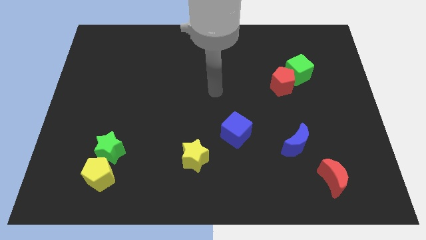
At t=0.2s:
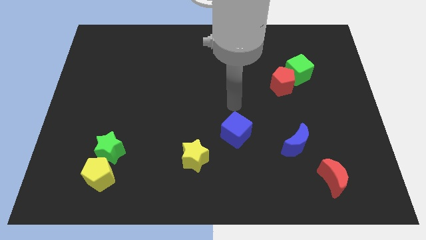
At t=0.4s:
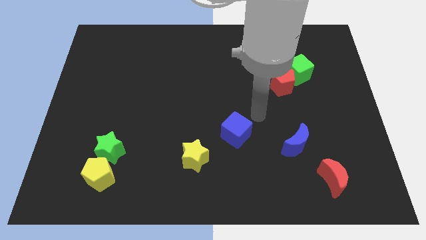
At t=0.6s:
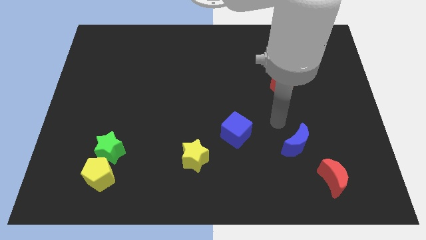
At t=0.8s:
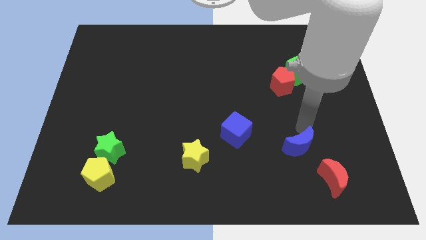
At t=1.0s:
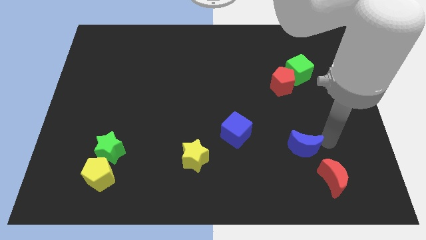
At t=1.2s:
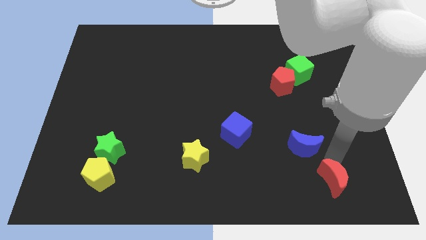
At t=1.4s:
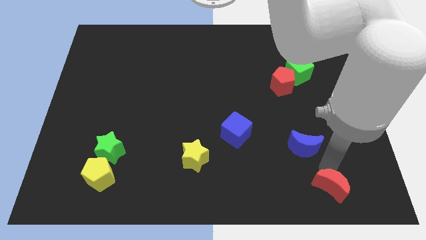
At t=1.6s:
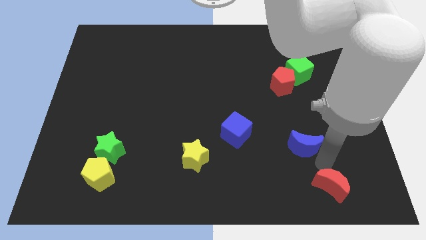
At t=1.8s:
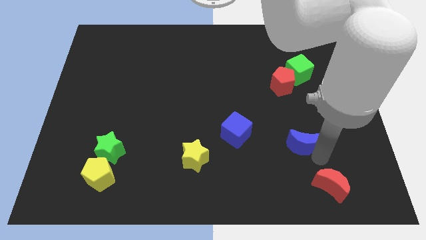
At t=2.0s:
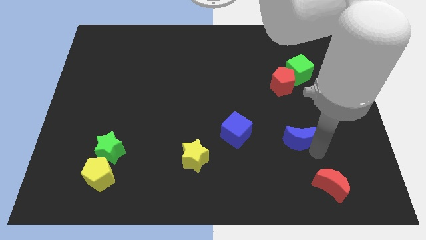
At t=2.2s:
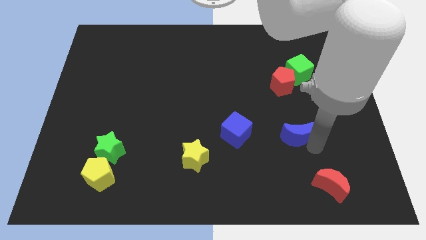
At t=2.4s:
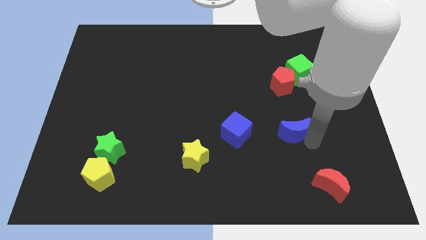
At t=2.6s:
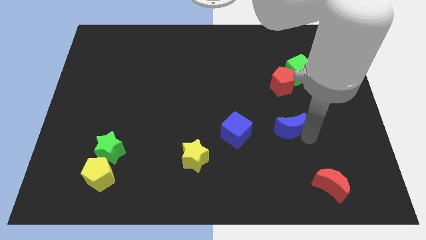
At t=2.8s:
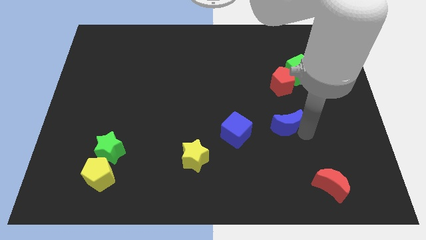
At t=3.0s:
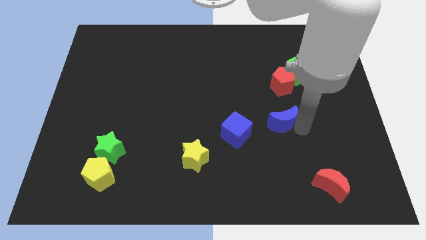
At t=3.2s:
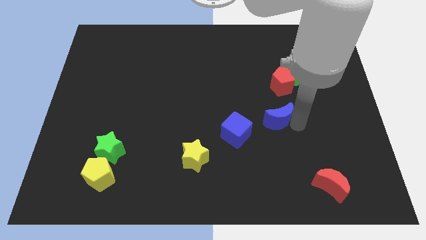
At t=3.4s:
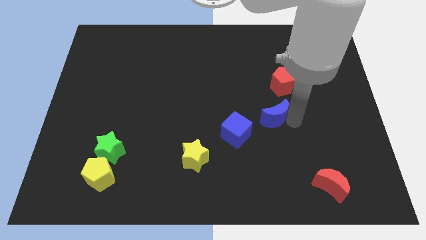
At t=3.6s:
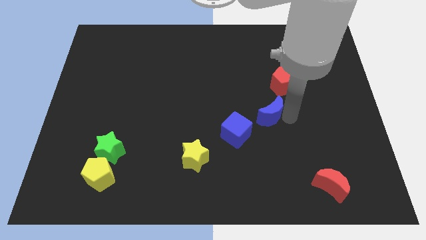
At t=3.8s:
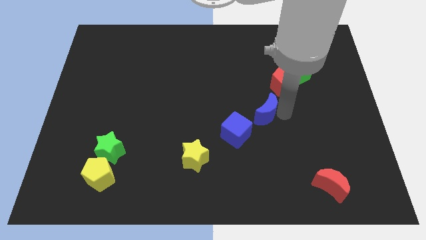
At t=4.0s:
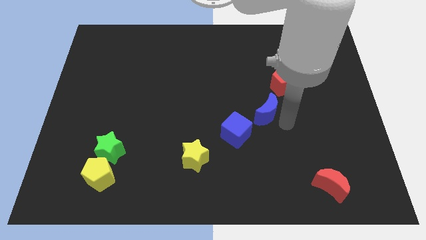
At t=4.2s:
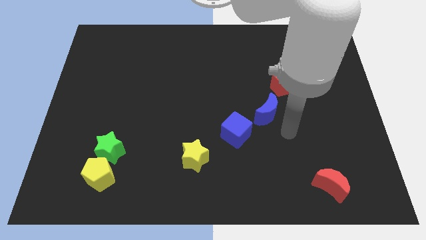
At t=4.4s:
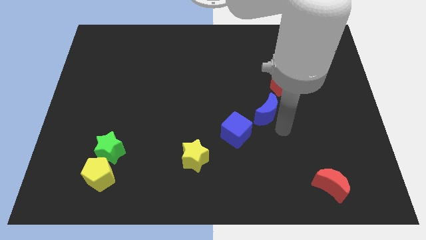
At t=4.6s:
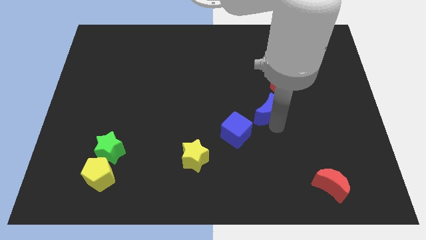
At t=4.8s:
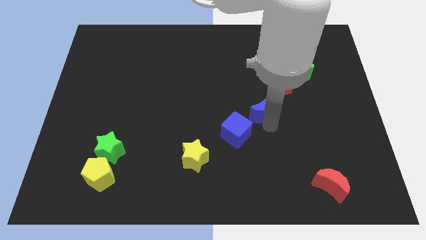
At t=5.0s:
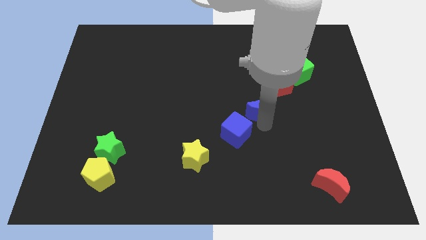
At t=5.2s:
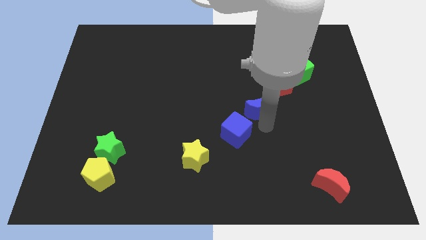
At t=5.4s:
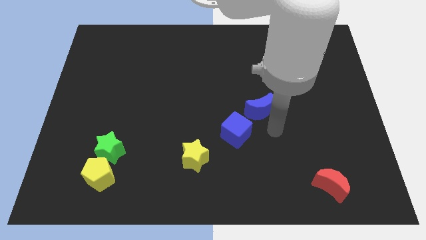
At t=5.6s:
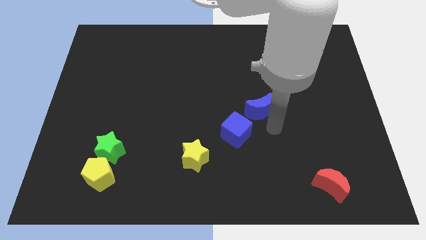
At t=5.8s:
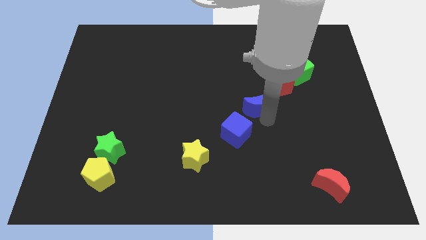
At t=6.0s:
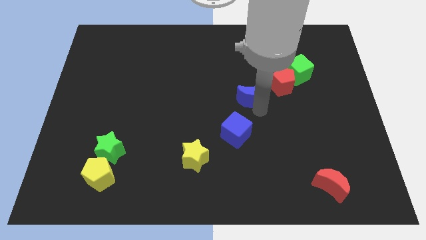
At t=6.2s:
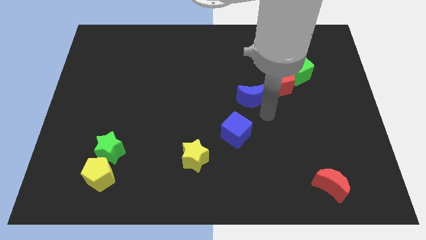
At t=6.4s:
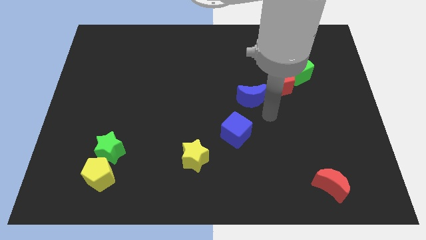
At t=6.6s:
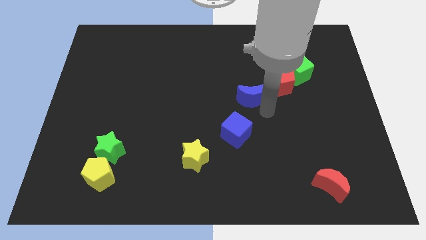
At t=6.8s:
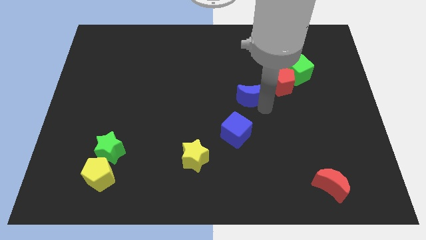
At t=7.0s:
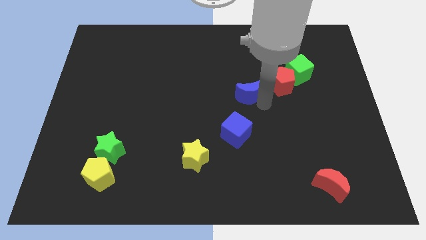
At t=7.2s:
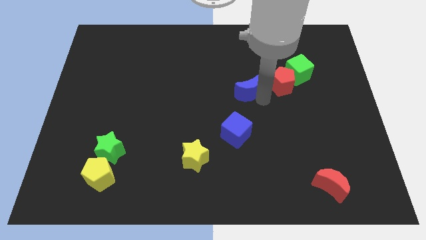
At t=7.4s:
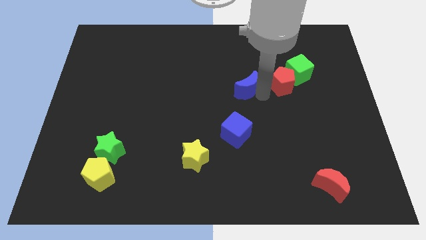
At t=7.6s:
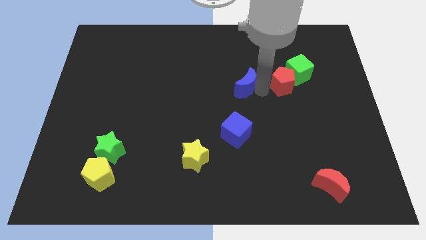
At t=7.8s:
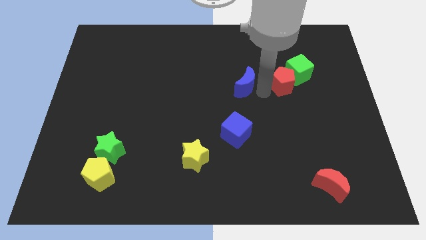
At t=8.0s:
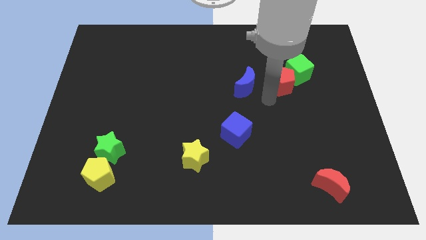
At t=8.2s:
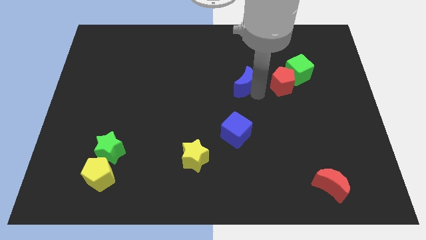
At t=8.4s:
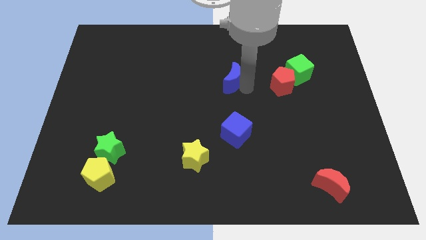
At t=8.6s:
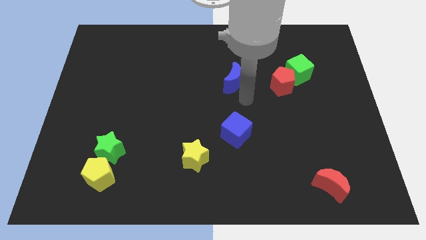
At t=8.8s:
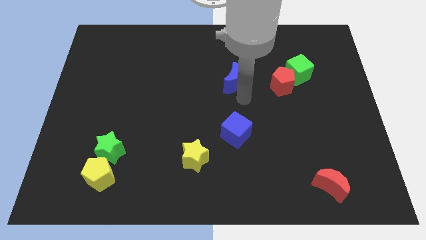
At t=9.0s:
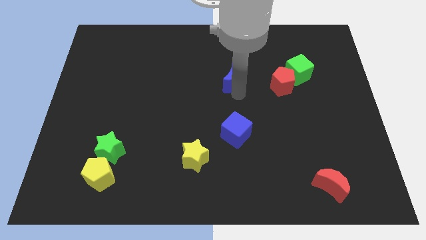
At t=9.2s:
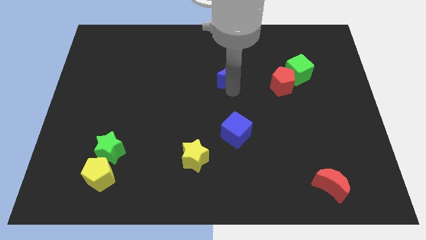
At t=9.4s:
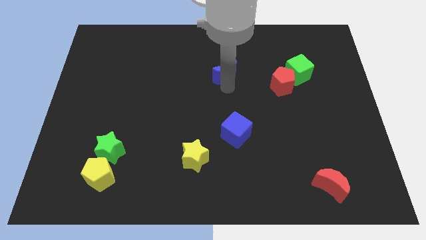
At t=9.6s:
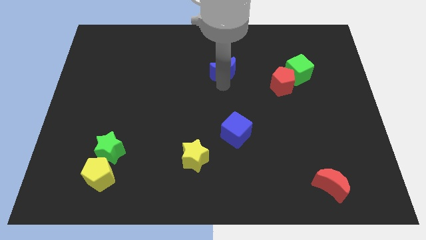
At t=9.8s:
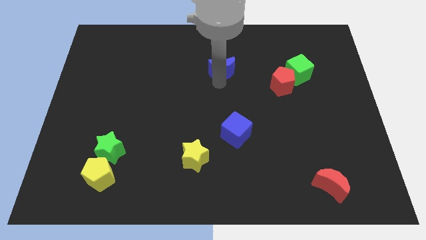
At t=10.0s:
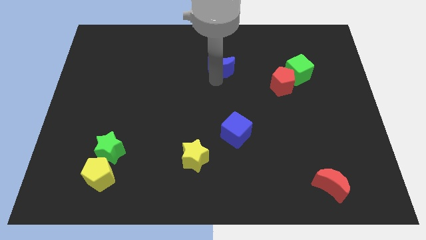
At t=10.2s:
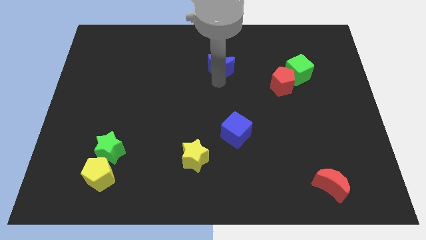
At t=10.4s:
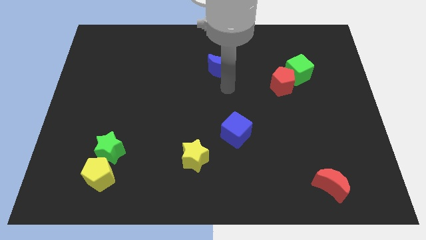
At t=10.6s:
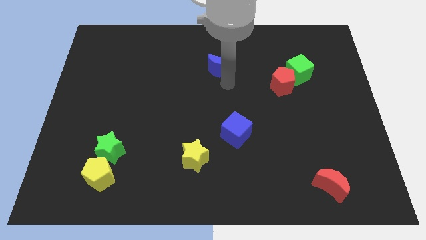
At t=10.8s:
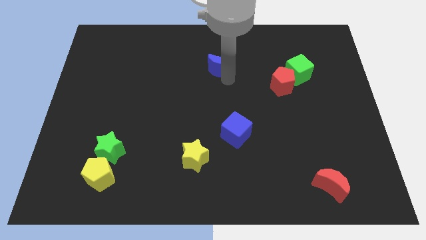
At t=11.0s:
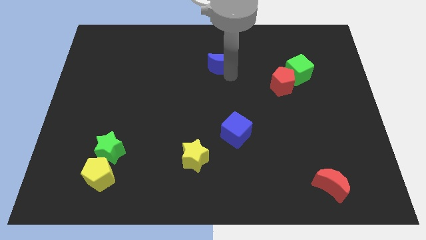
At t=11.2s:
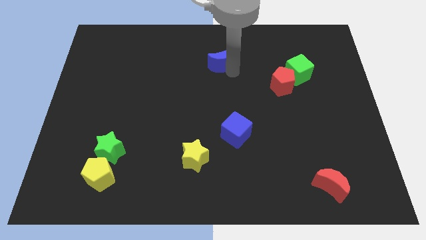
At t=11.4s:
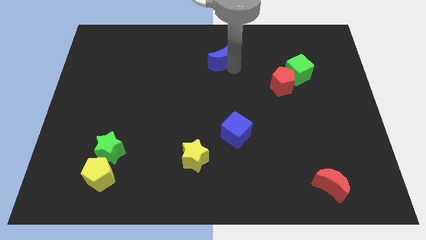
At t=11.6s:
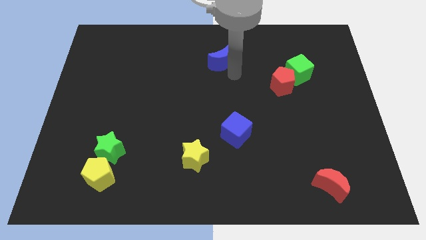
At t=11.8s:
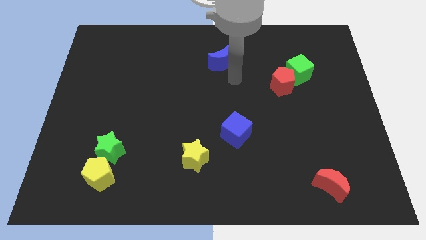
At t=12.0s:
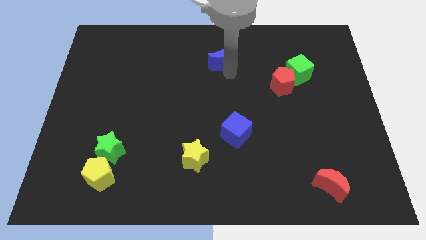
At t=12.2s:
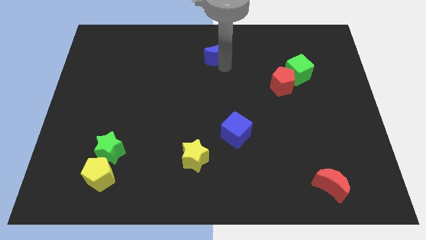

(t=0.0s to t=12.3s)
put the blue moon to the top

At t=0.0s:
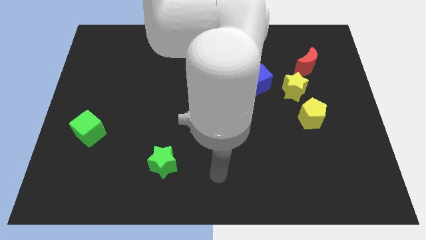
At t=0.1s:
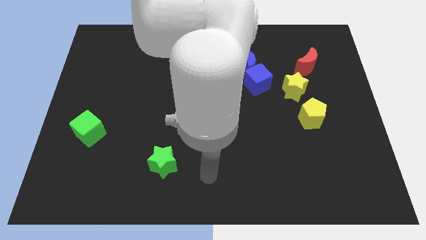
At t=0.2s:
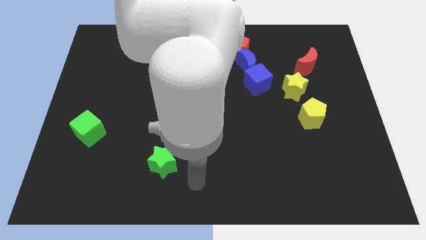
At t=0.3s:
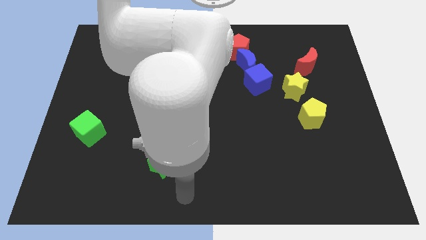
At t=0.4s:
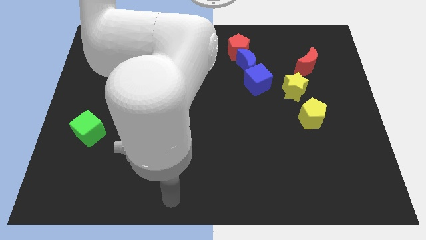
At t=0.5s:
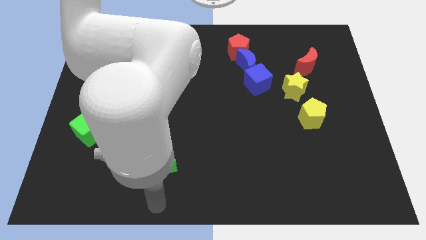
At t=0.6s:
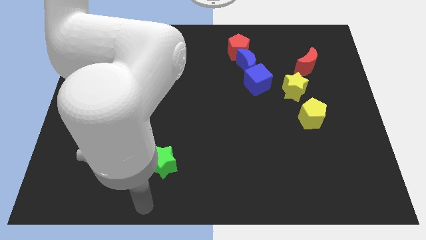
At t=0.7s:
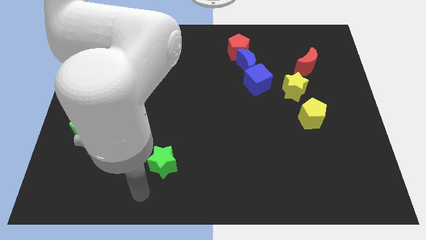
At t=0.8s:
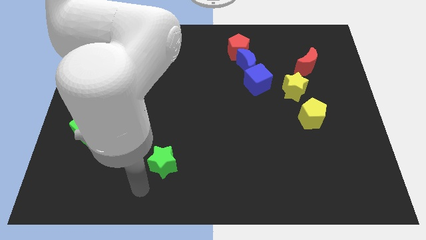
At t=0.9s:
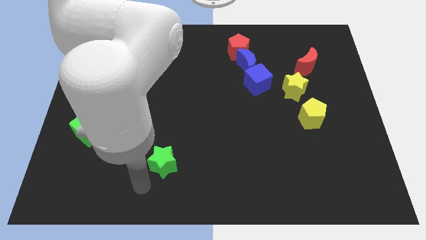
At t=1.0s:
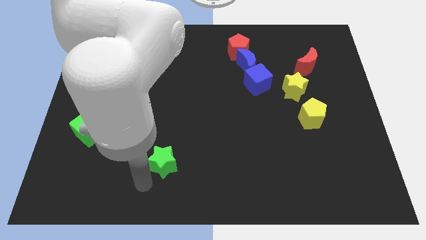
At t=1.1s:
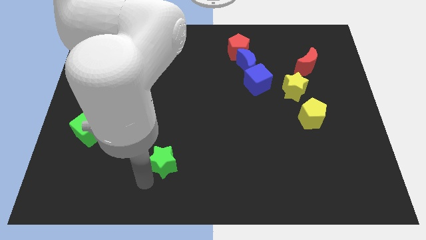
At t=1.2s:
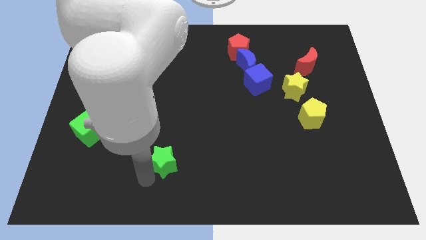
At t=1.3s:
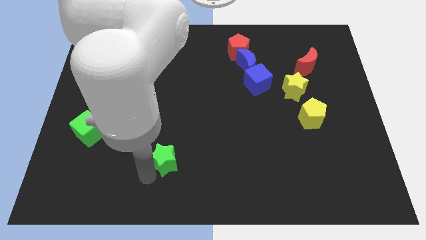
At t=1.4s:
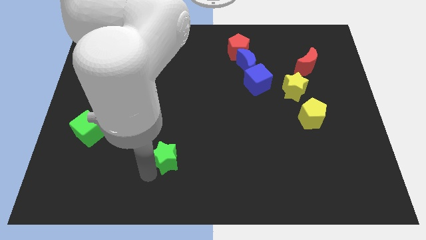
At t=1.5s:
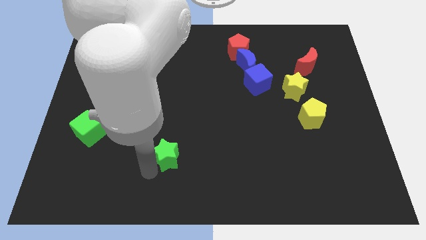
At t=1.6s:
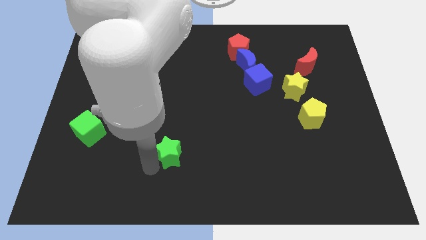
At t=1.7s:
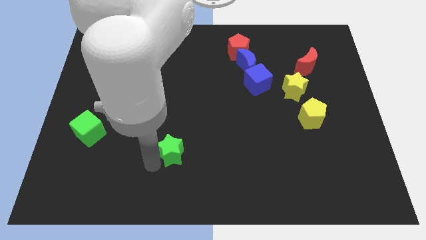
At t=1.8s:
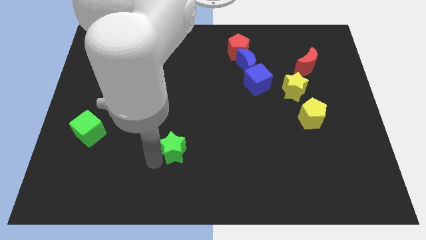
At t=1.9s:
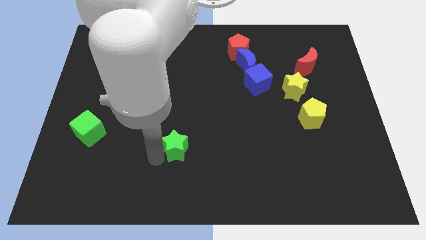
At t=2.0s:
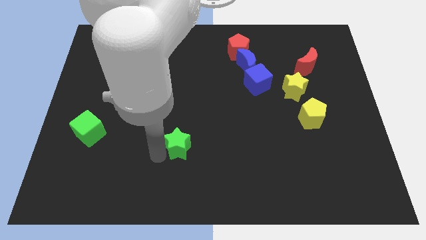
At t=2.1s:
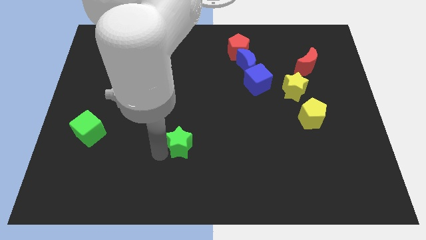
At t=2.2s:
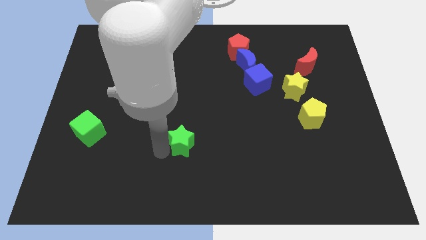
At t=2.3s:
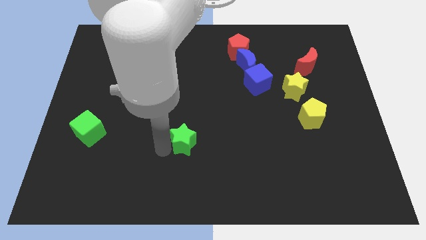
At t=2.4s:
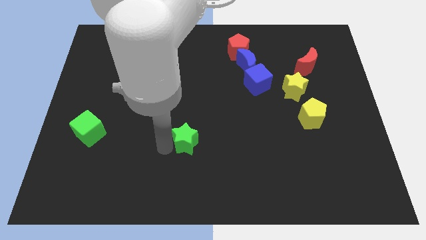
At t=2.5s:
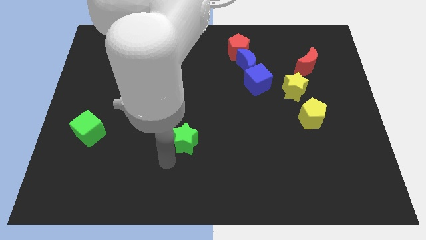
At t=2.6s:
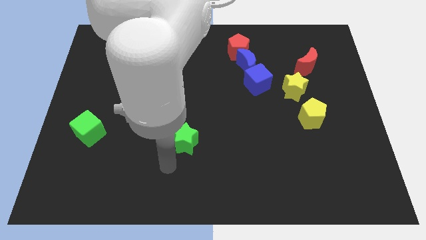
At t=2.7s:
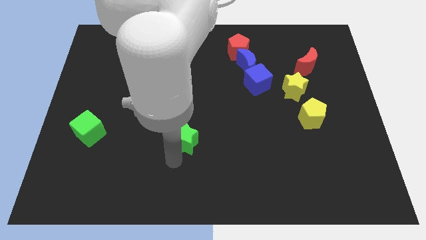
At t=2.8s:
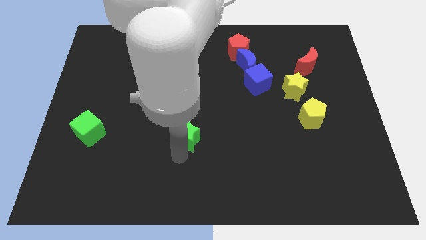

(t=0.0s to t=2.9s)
slide the green star to the center of the board
